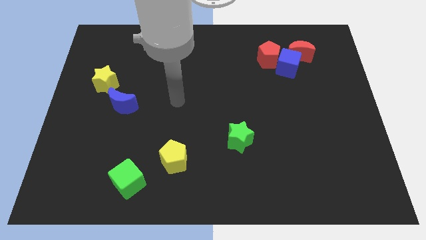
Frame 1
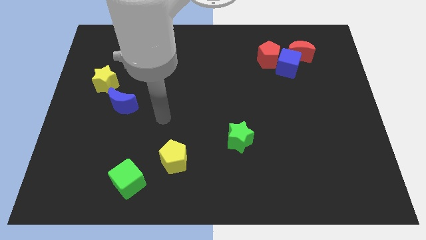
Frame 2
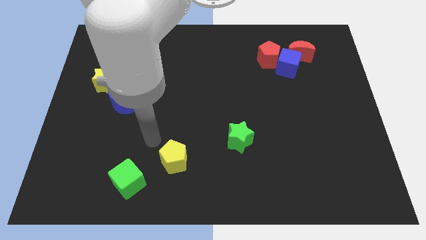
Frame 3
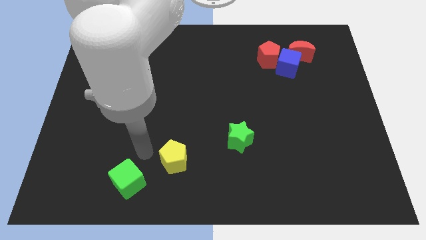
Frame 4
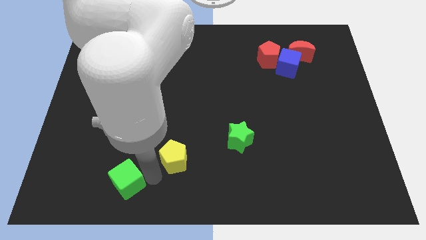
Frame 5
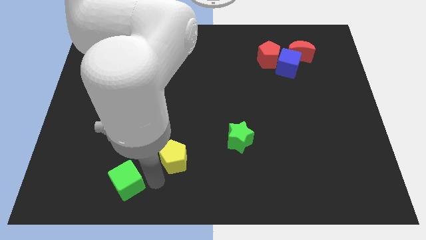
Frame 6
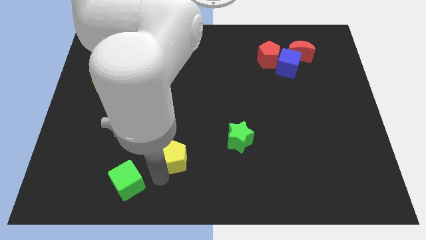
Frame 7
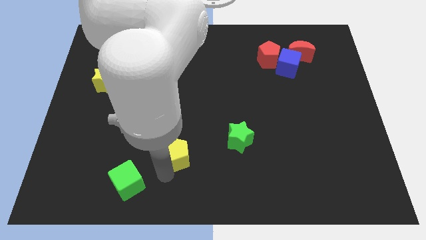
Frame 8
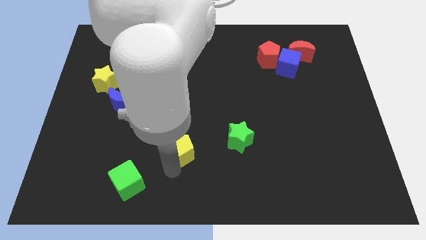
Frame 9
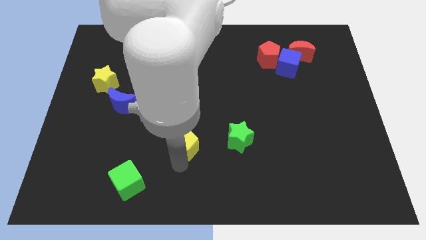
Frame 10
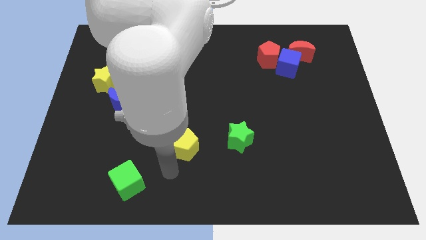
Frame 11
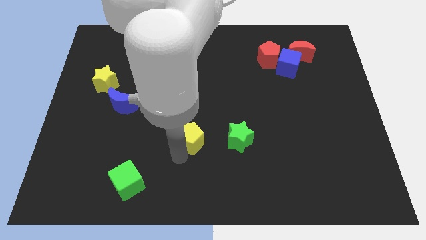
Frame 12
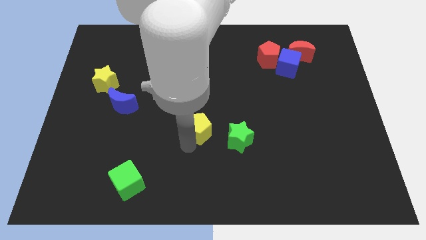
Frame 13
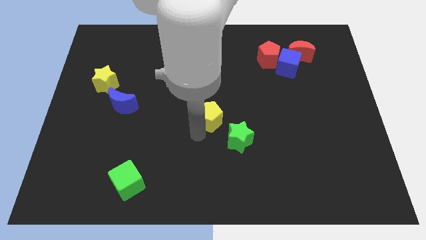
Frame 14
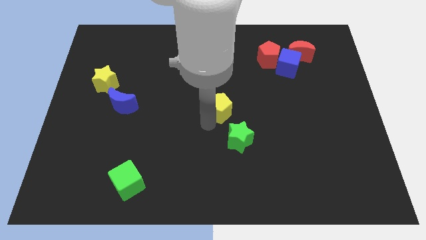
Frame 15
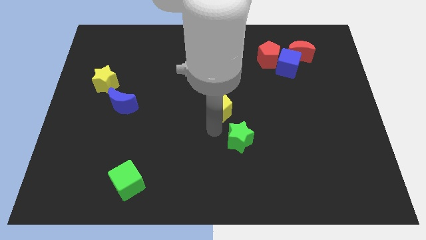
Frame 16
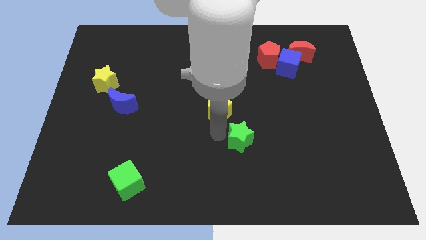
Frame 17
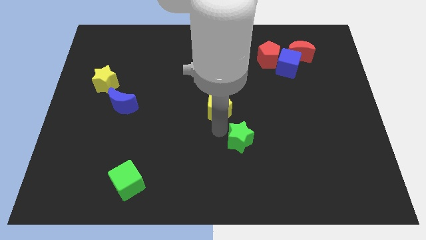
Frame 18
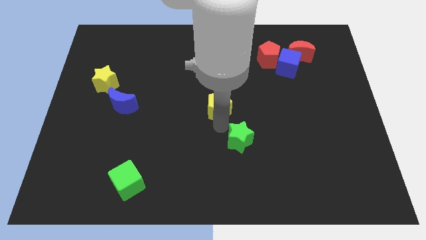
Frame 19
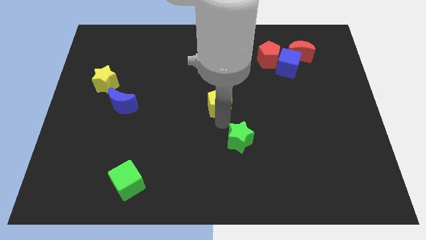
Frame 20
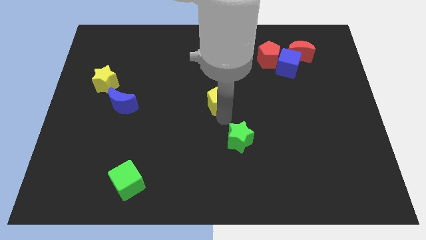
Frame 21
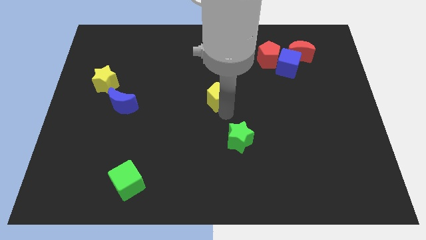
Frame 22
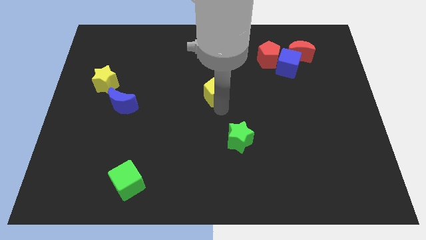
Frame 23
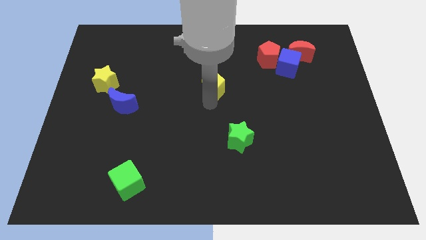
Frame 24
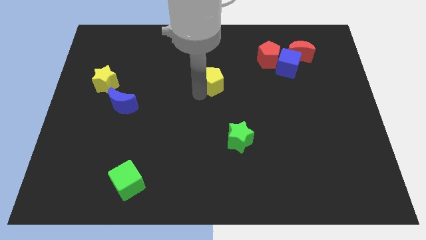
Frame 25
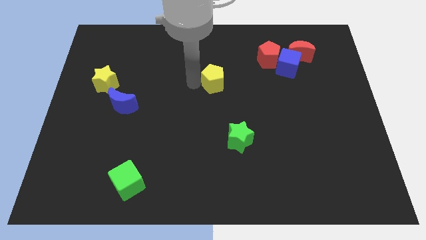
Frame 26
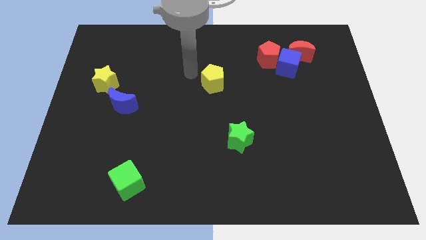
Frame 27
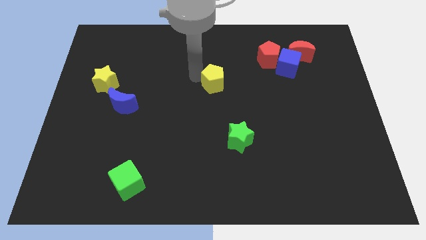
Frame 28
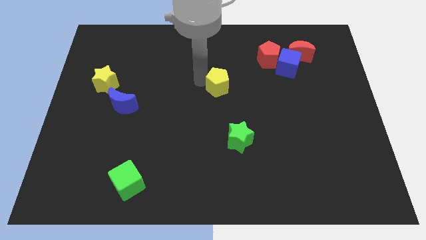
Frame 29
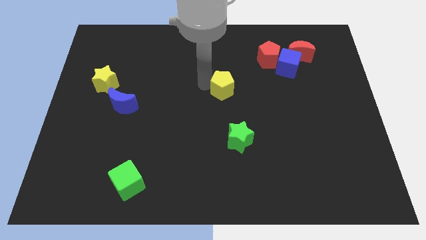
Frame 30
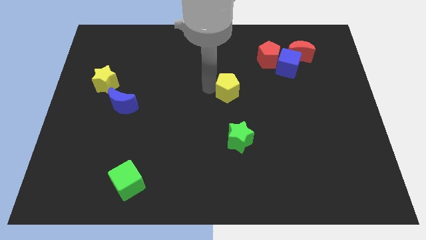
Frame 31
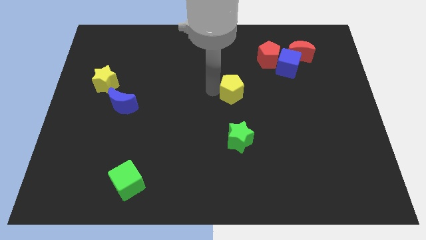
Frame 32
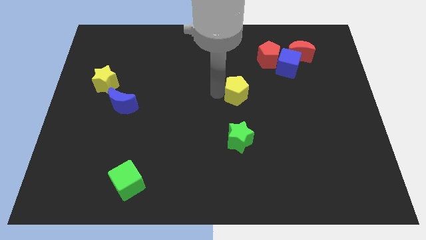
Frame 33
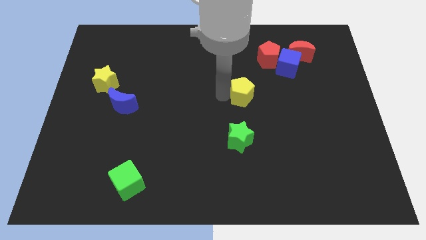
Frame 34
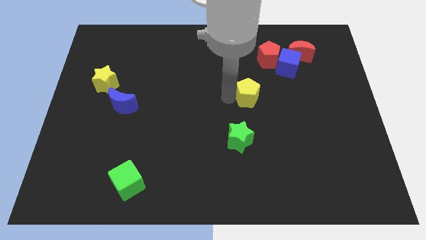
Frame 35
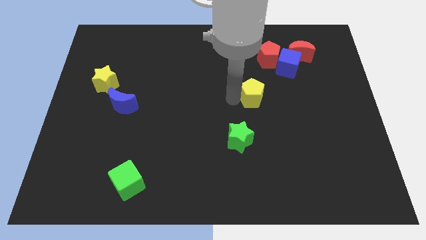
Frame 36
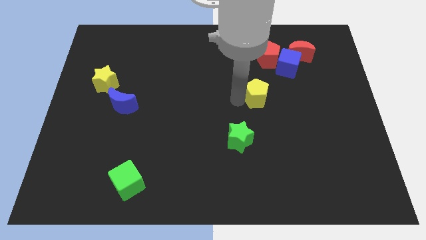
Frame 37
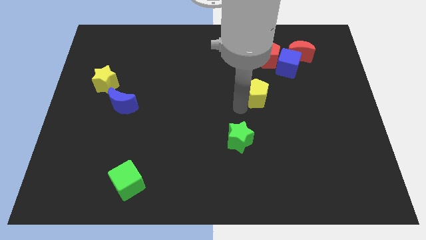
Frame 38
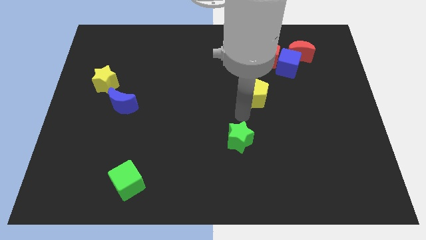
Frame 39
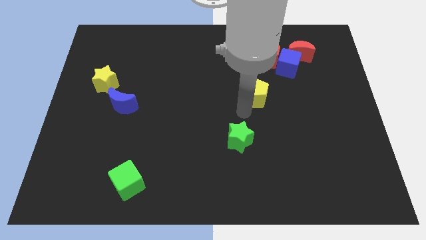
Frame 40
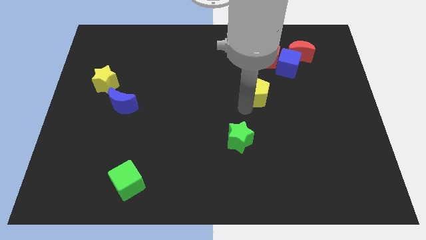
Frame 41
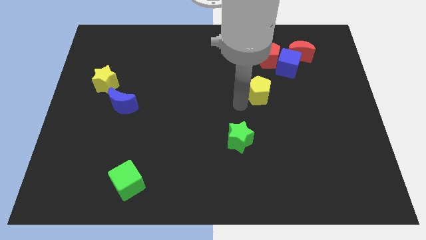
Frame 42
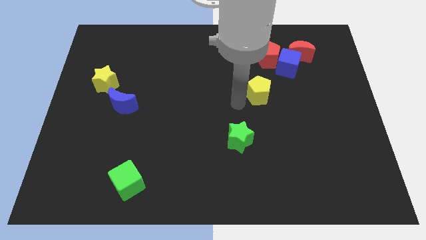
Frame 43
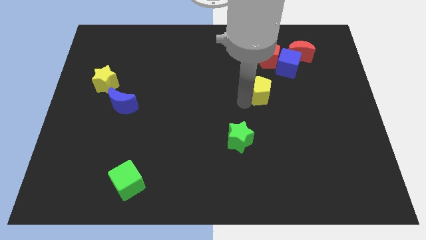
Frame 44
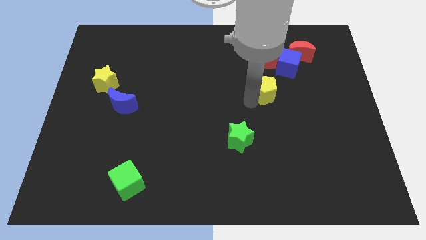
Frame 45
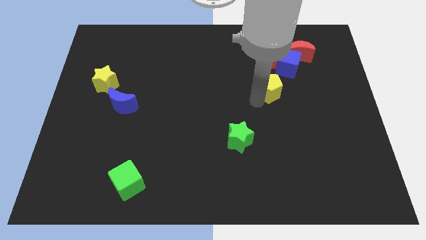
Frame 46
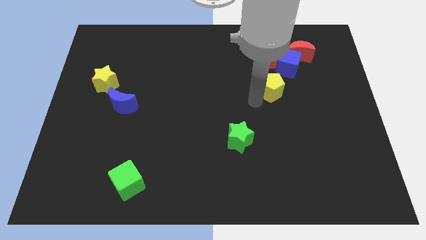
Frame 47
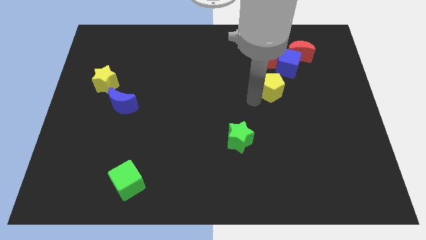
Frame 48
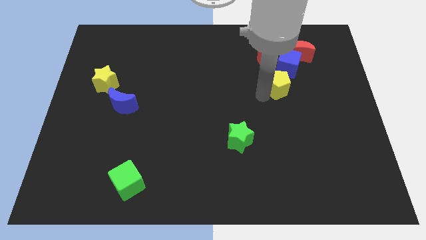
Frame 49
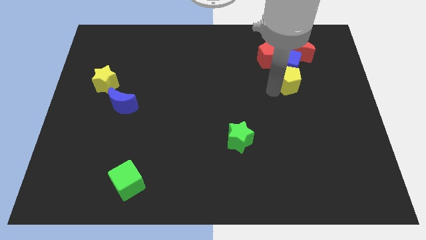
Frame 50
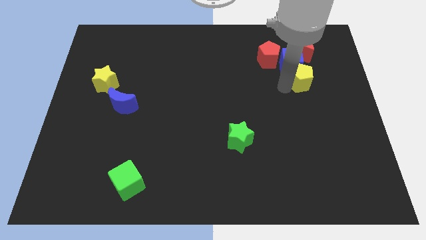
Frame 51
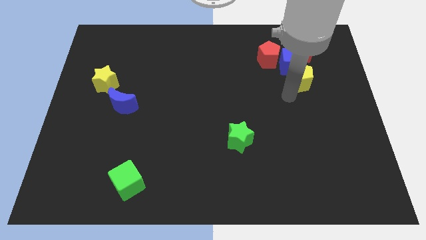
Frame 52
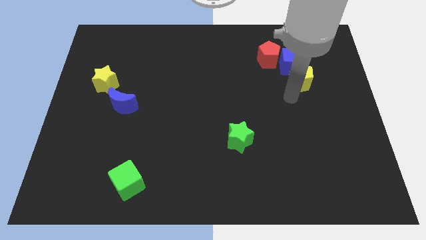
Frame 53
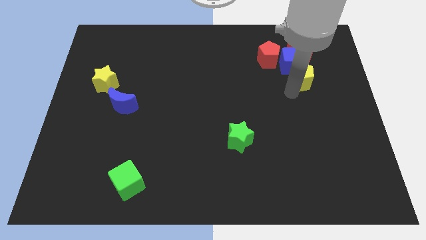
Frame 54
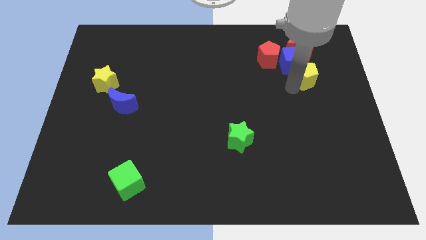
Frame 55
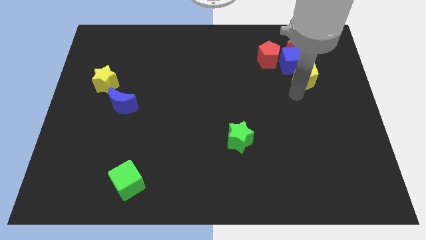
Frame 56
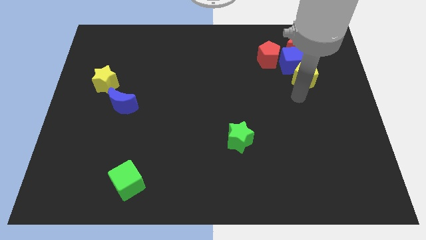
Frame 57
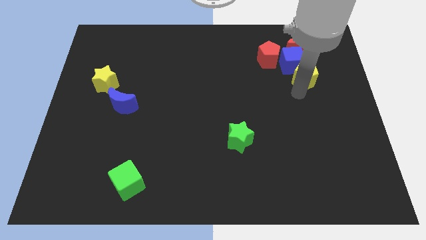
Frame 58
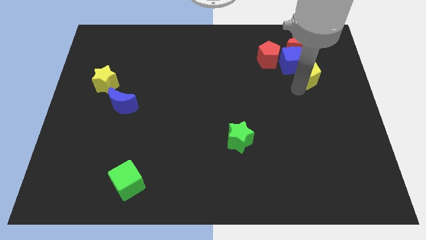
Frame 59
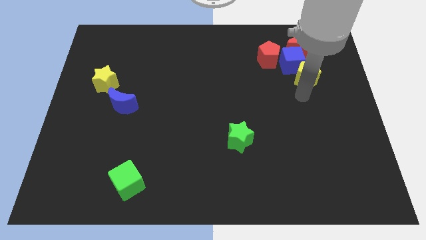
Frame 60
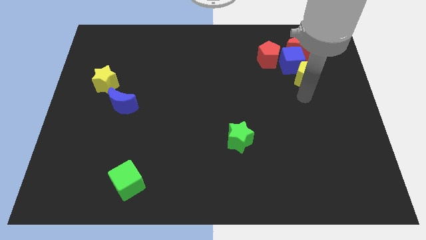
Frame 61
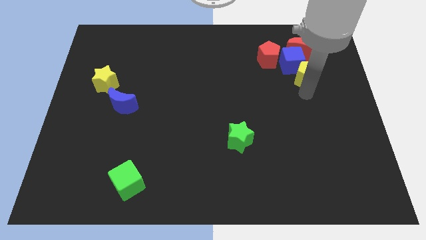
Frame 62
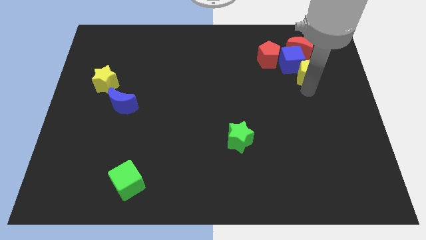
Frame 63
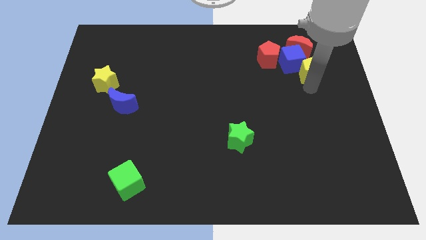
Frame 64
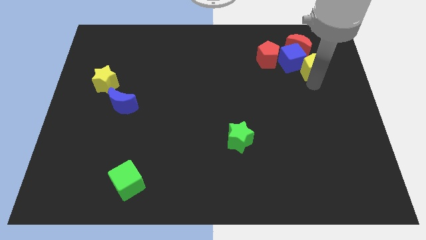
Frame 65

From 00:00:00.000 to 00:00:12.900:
move the yellow pentagon to the right of the red pentagon
